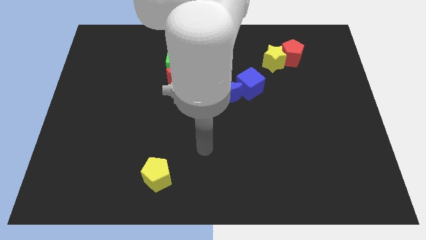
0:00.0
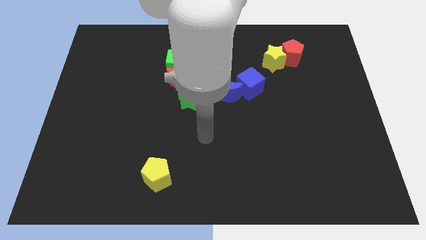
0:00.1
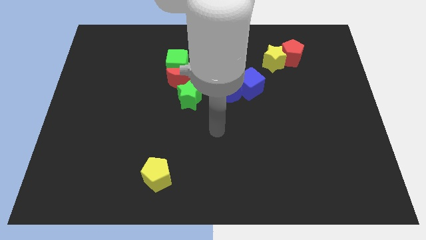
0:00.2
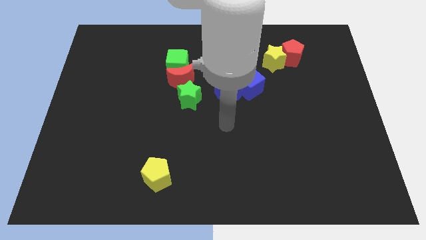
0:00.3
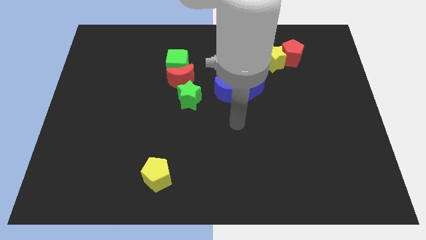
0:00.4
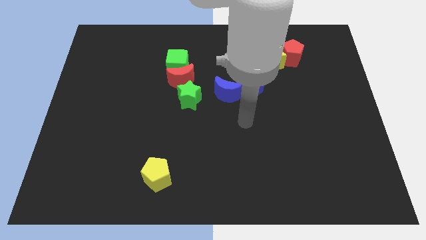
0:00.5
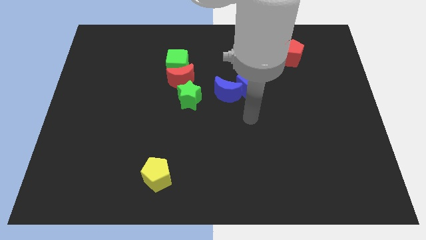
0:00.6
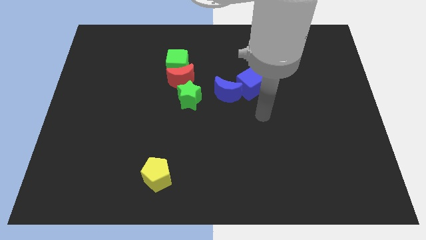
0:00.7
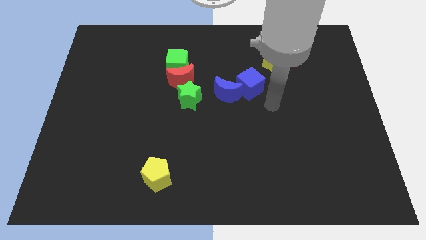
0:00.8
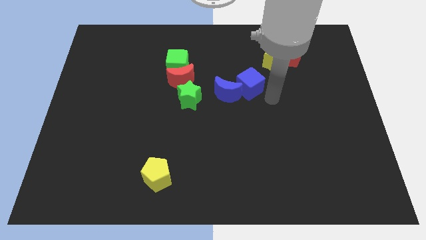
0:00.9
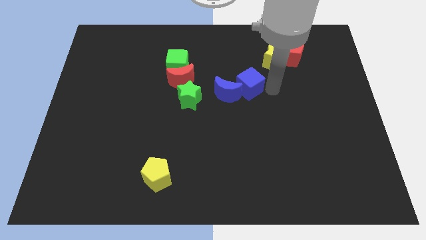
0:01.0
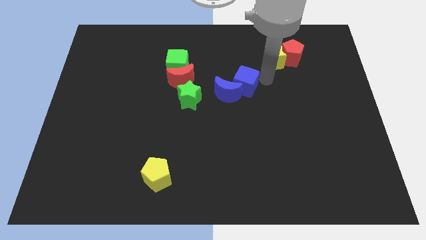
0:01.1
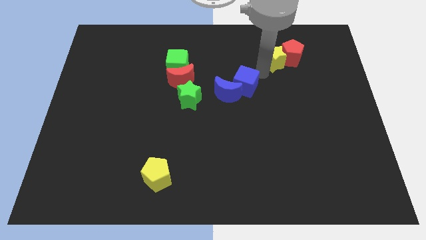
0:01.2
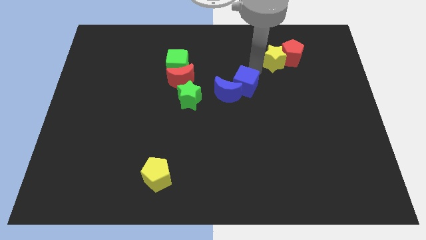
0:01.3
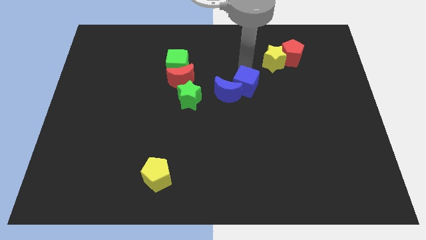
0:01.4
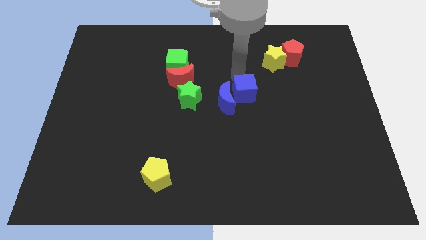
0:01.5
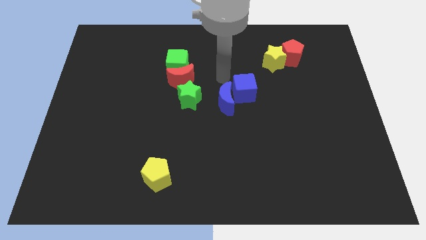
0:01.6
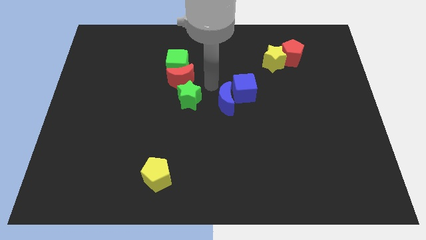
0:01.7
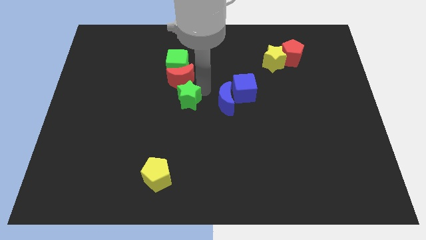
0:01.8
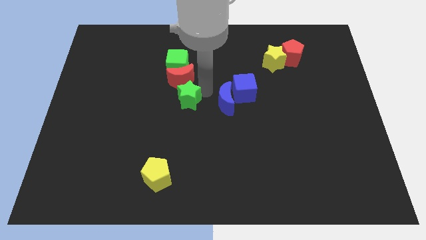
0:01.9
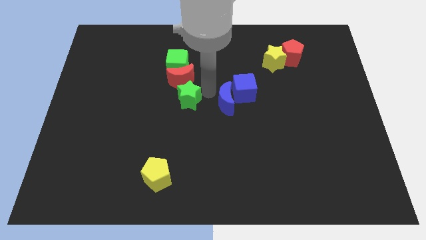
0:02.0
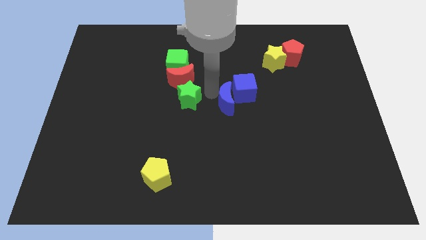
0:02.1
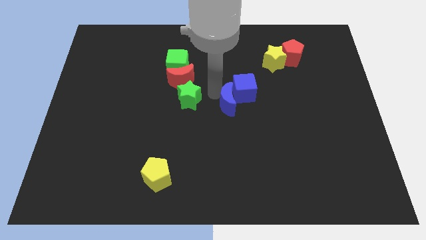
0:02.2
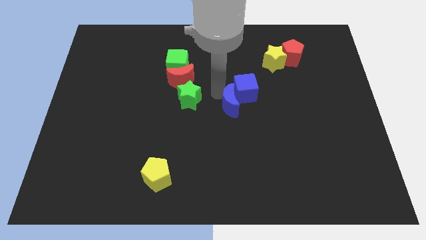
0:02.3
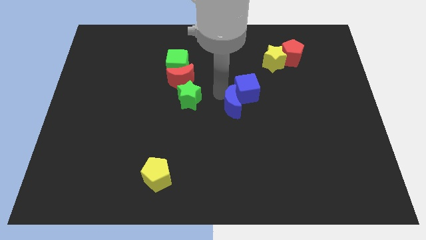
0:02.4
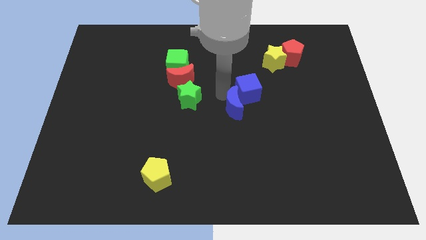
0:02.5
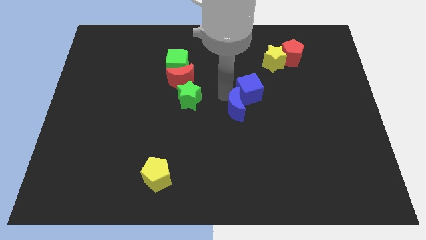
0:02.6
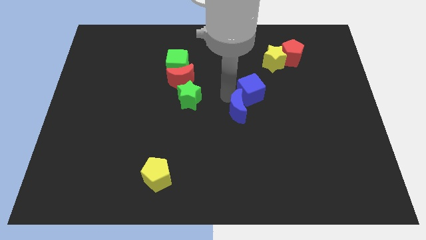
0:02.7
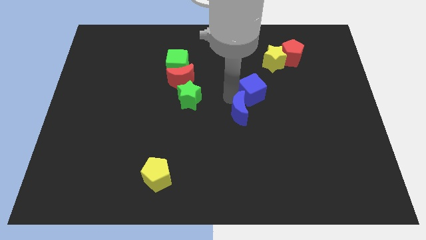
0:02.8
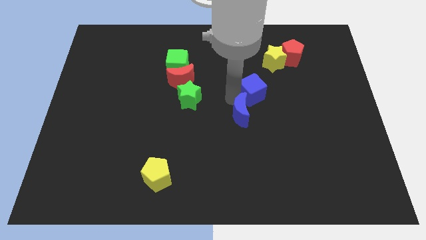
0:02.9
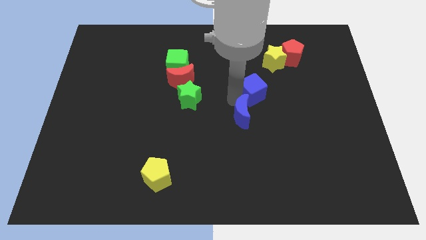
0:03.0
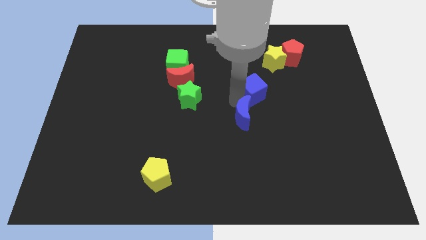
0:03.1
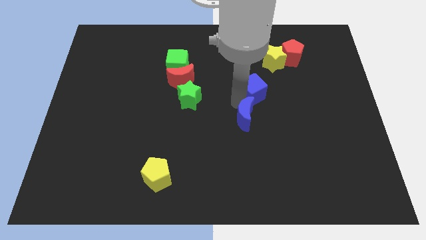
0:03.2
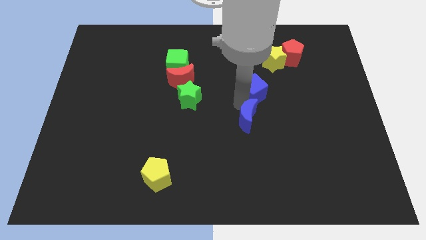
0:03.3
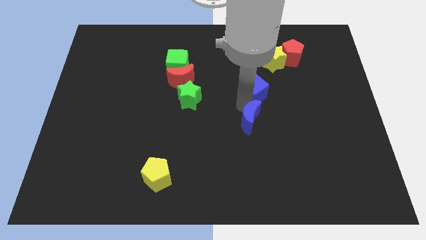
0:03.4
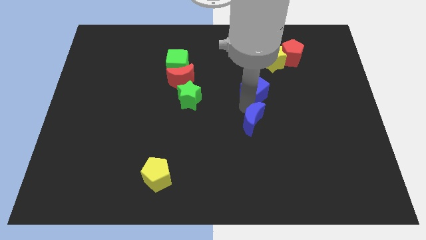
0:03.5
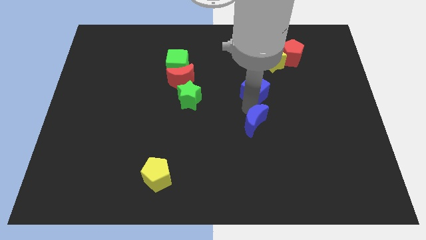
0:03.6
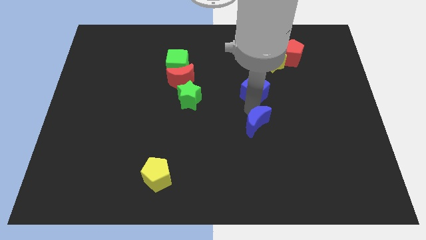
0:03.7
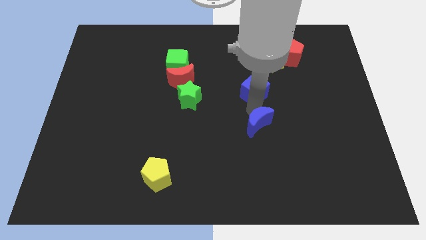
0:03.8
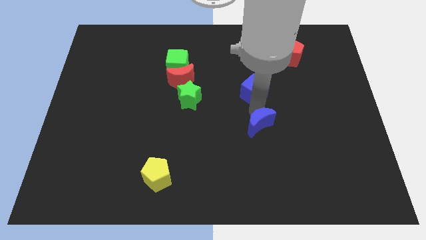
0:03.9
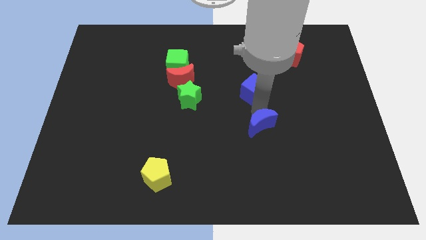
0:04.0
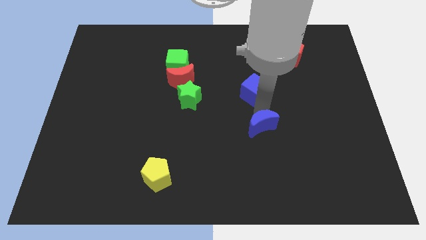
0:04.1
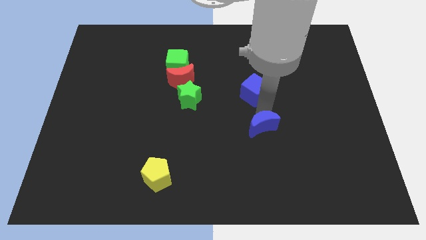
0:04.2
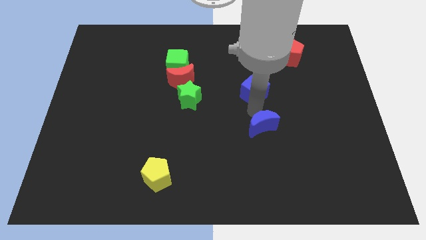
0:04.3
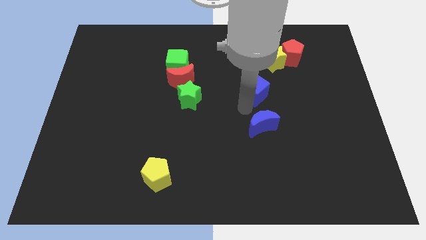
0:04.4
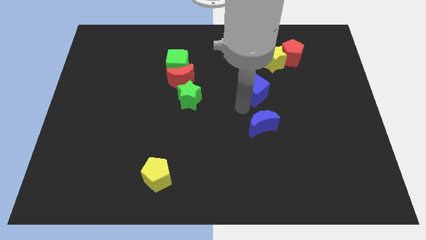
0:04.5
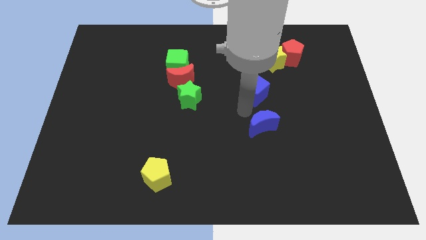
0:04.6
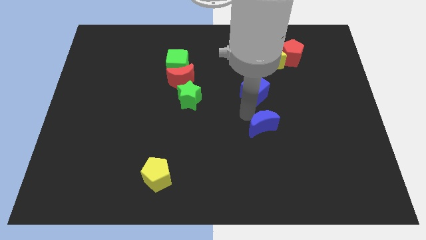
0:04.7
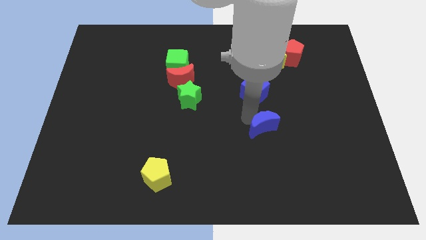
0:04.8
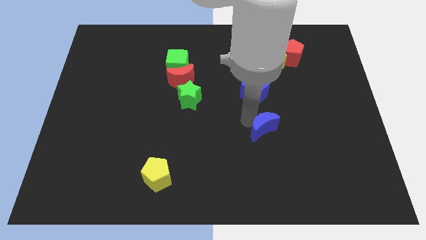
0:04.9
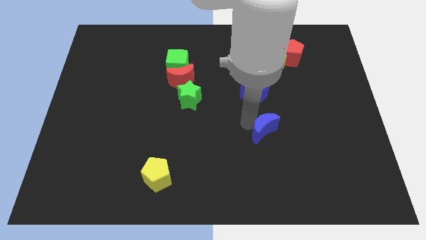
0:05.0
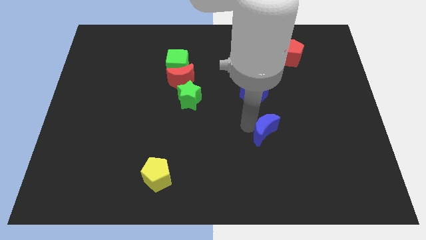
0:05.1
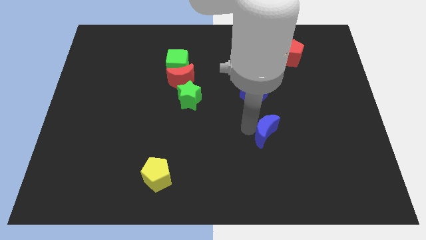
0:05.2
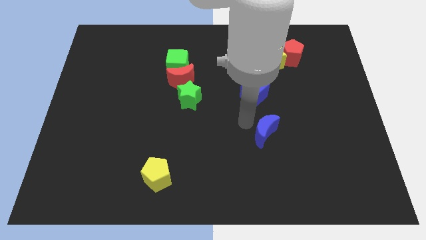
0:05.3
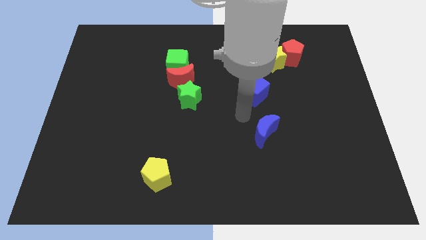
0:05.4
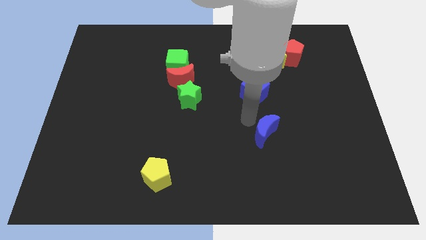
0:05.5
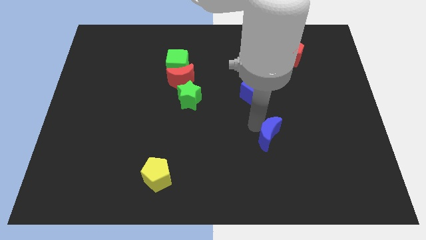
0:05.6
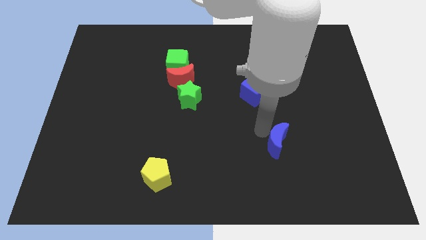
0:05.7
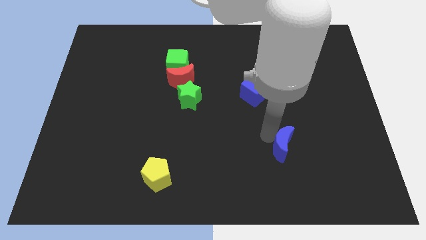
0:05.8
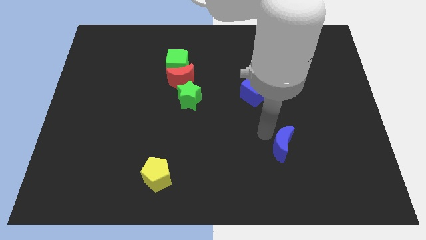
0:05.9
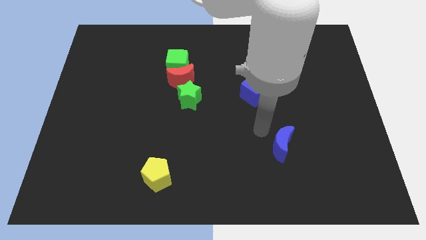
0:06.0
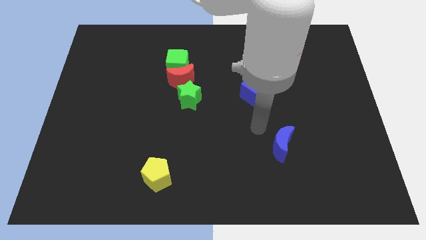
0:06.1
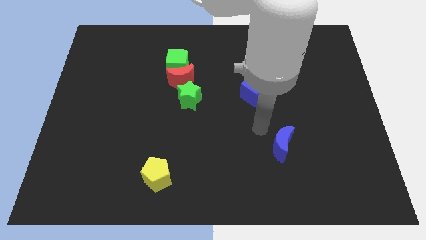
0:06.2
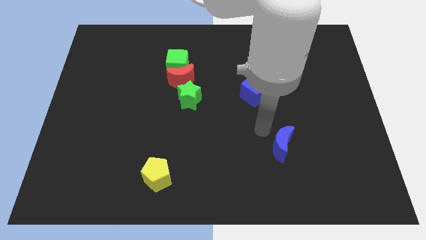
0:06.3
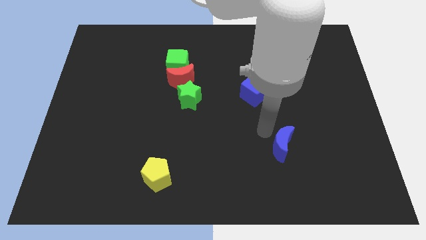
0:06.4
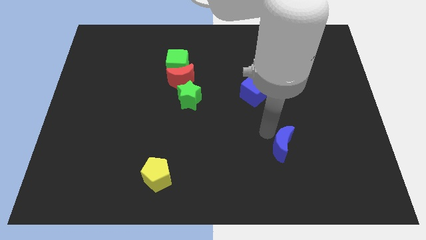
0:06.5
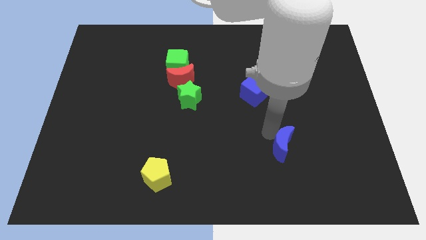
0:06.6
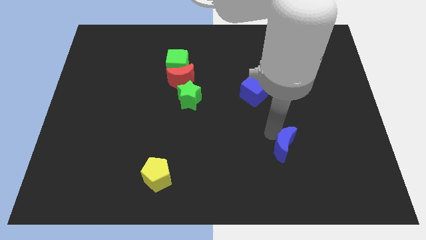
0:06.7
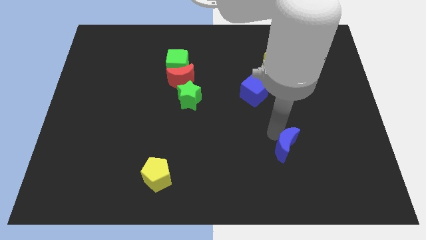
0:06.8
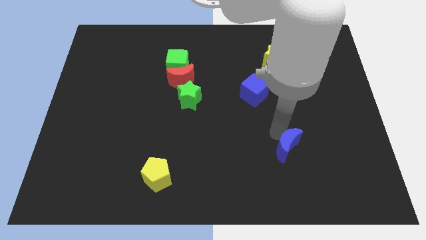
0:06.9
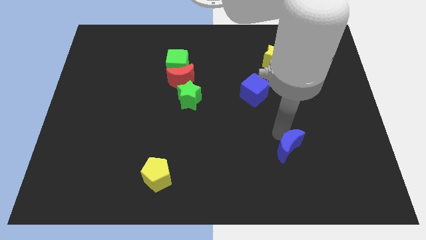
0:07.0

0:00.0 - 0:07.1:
slide the blue moon downwards and right

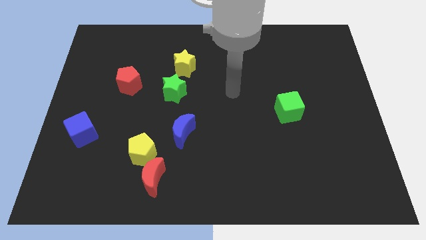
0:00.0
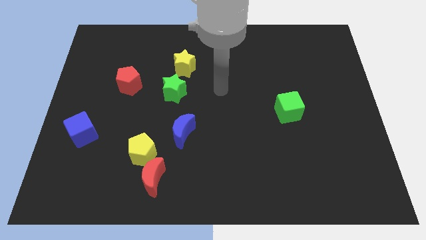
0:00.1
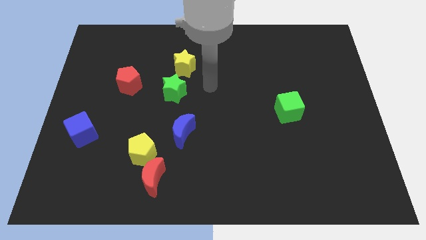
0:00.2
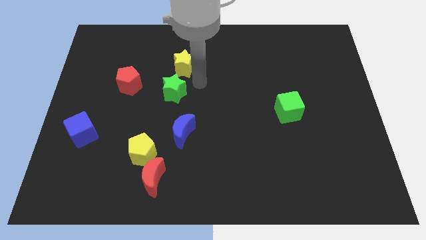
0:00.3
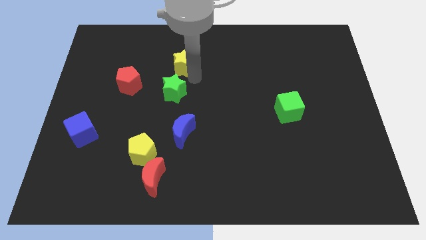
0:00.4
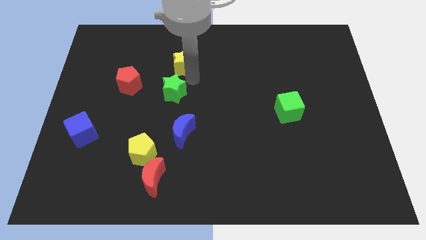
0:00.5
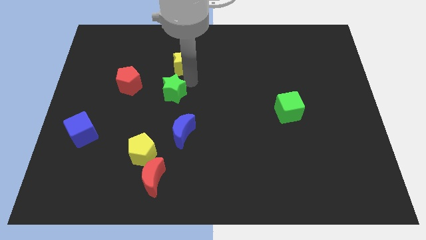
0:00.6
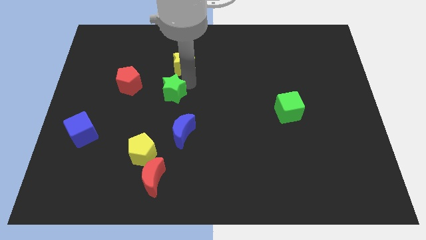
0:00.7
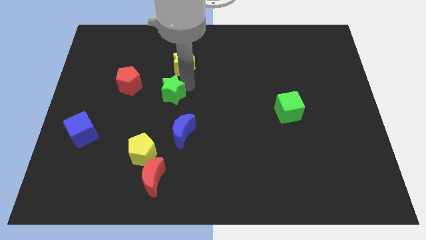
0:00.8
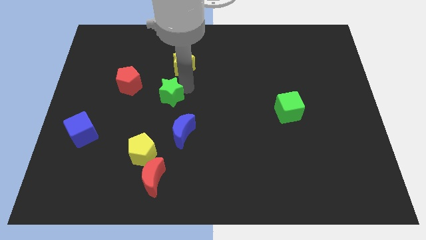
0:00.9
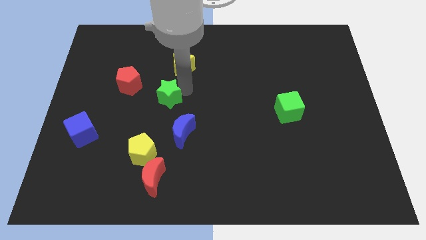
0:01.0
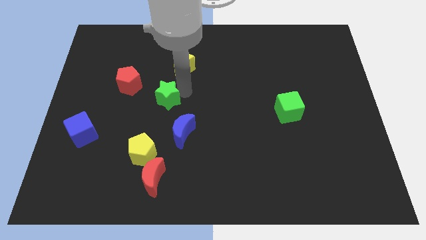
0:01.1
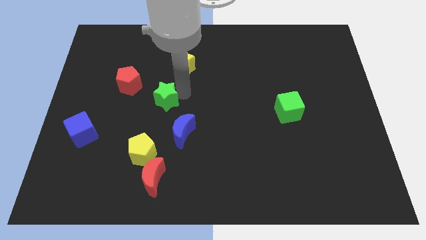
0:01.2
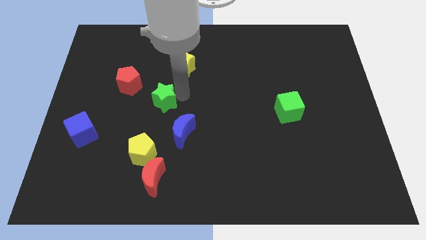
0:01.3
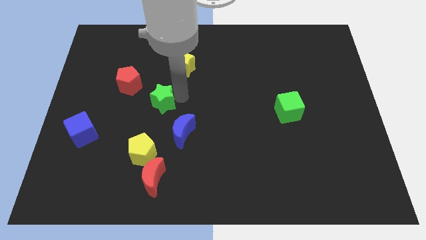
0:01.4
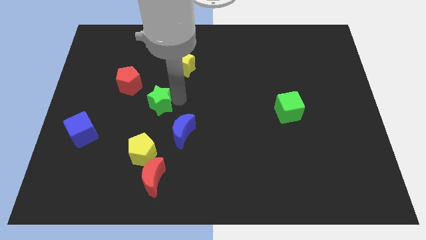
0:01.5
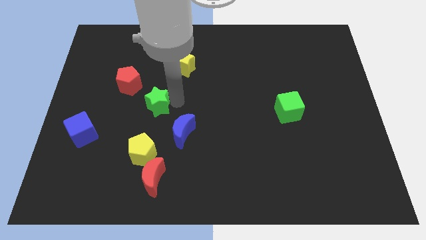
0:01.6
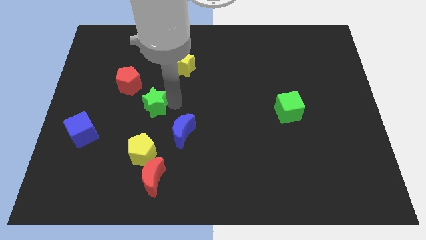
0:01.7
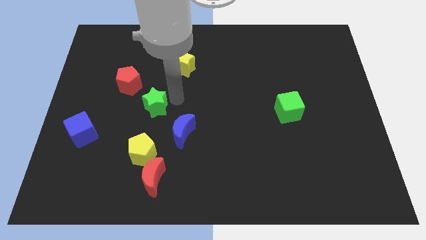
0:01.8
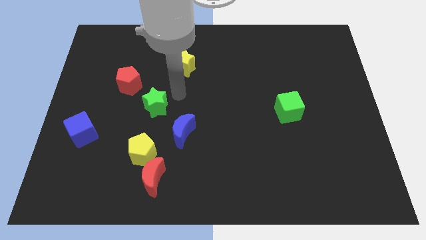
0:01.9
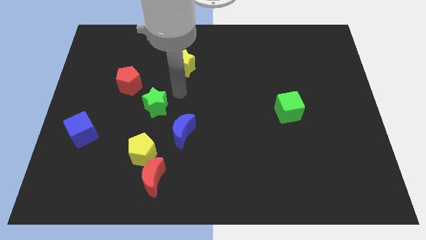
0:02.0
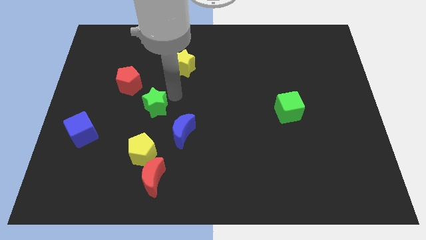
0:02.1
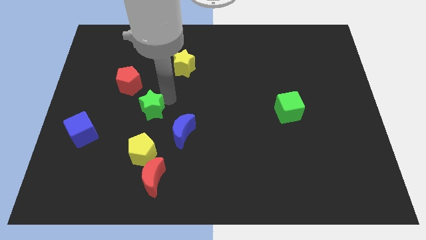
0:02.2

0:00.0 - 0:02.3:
slightly move the green star down and left diagonally
